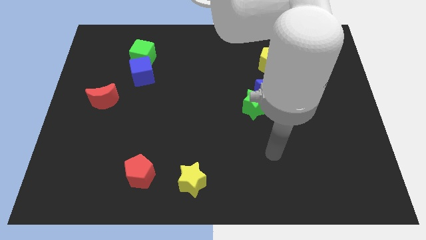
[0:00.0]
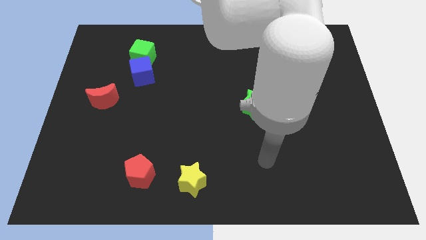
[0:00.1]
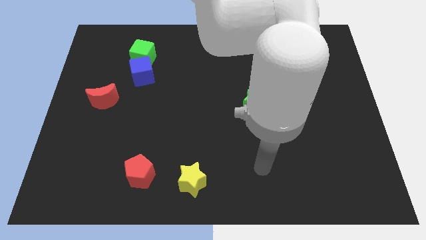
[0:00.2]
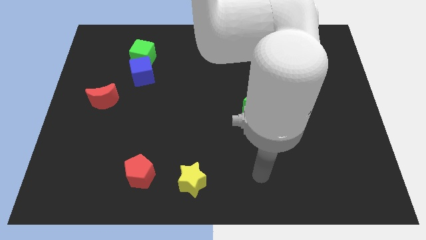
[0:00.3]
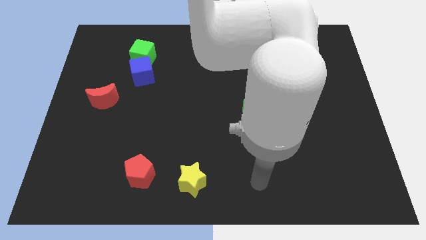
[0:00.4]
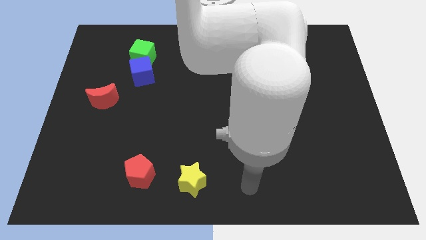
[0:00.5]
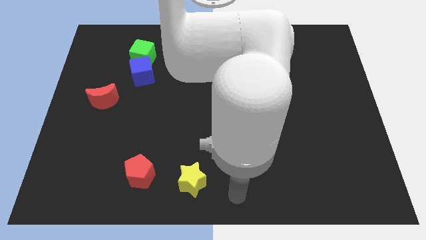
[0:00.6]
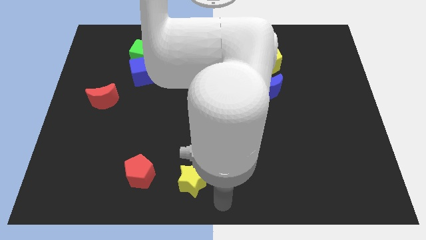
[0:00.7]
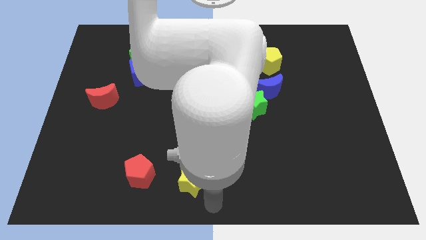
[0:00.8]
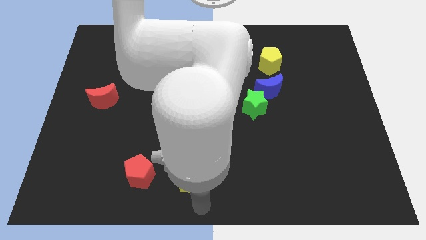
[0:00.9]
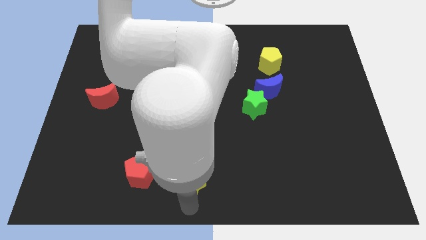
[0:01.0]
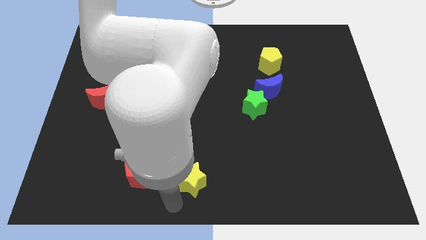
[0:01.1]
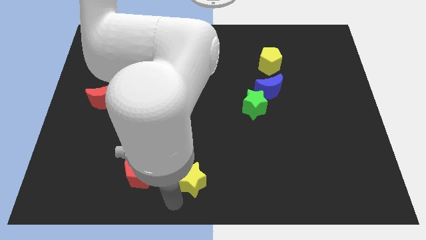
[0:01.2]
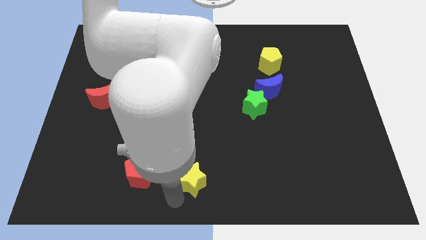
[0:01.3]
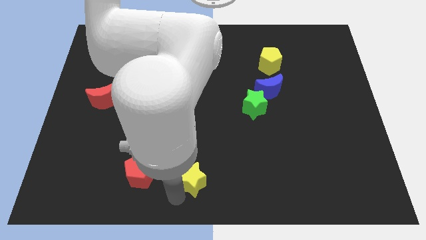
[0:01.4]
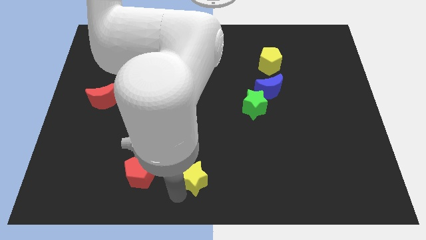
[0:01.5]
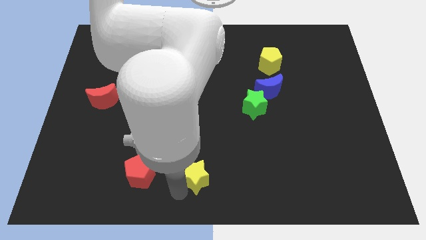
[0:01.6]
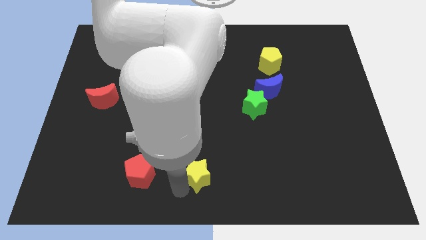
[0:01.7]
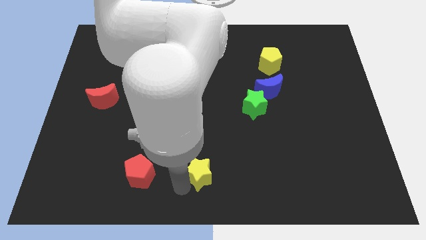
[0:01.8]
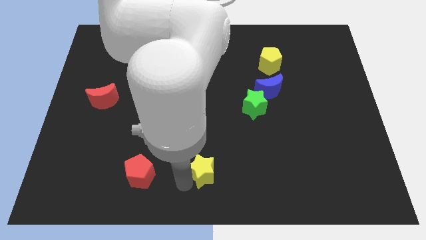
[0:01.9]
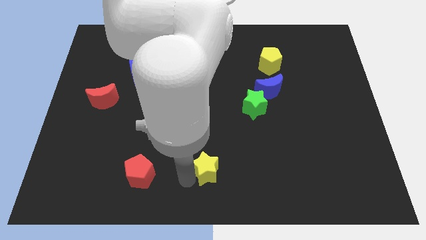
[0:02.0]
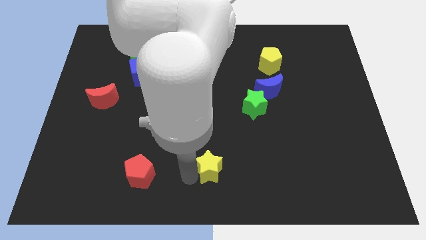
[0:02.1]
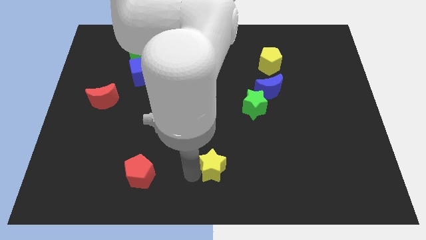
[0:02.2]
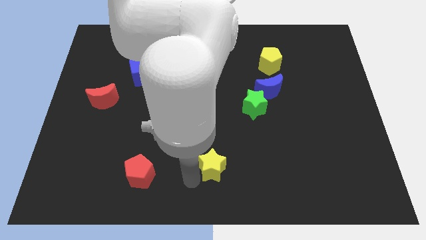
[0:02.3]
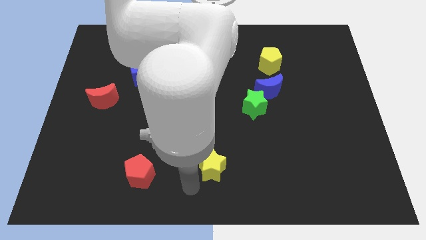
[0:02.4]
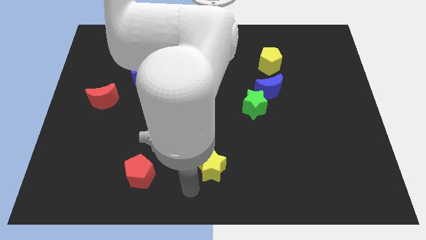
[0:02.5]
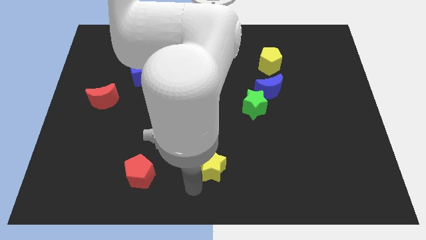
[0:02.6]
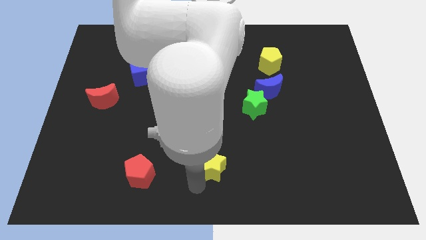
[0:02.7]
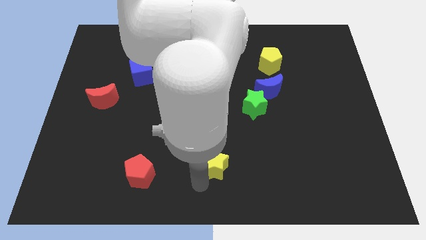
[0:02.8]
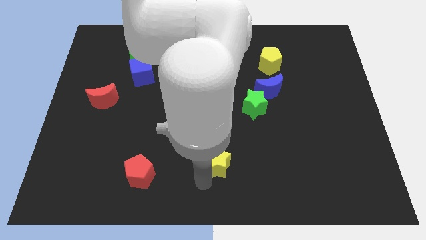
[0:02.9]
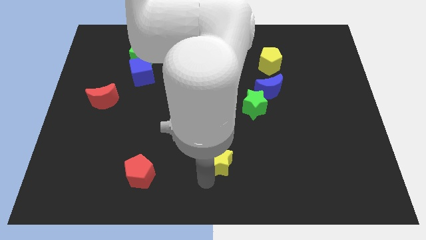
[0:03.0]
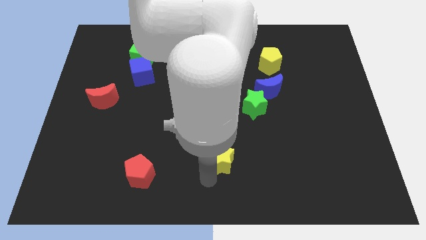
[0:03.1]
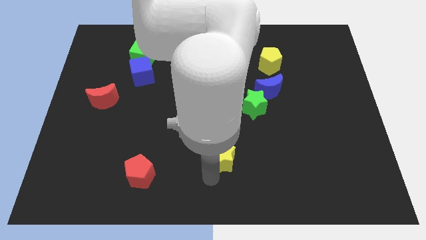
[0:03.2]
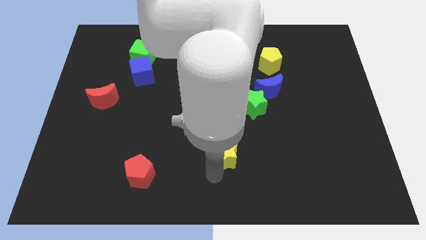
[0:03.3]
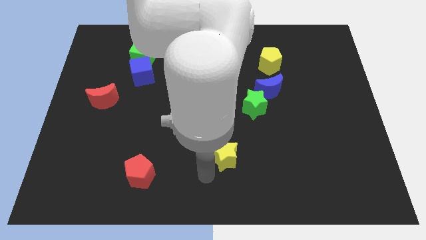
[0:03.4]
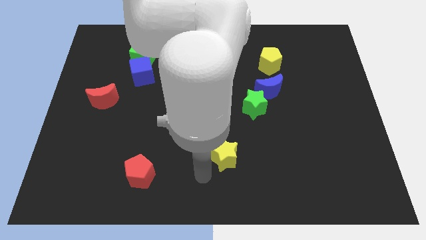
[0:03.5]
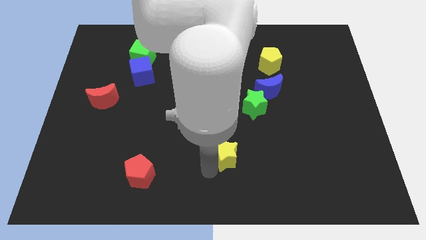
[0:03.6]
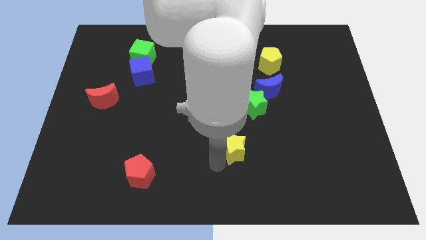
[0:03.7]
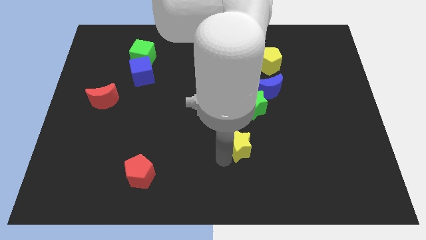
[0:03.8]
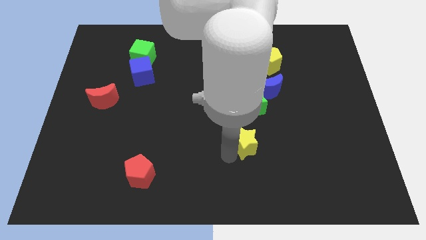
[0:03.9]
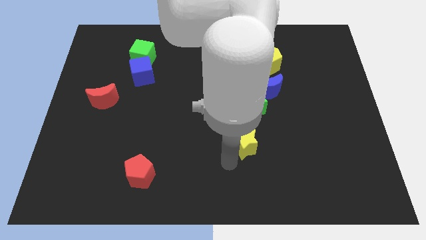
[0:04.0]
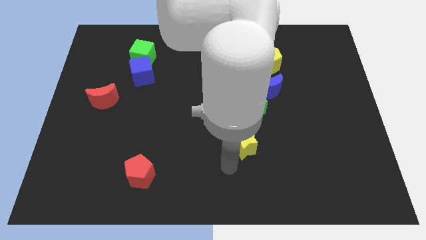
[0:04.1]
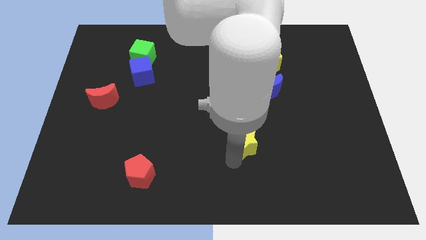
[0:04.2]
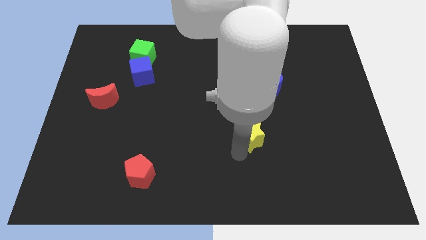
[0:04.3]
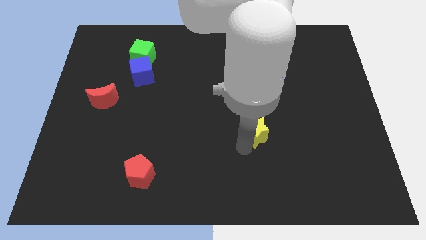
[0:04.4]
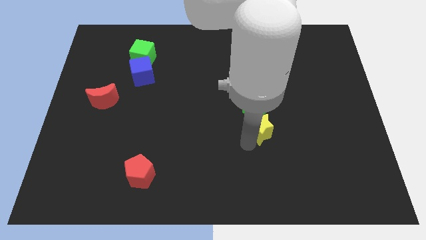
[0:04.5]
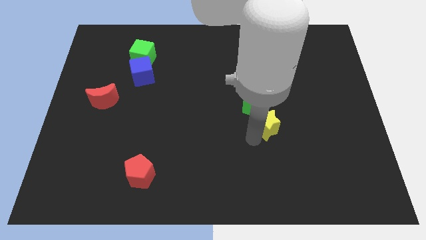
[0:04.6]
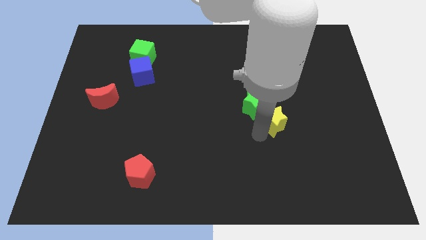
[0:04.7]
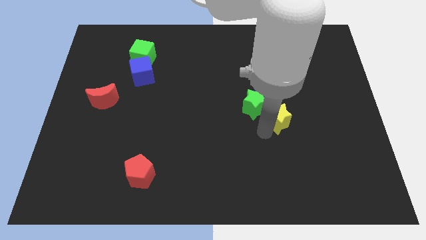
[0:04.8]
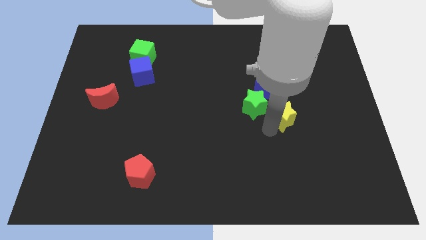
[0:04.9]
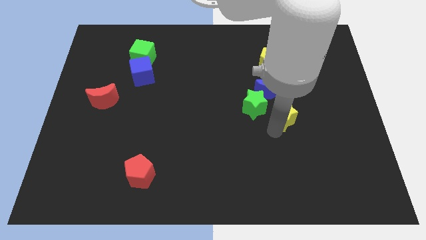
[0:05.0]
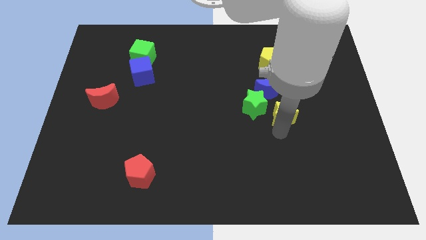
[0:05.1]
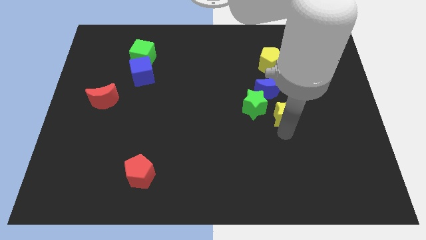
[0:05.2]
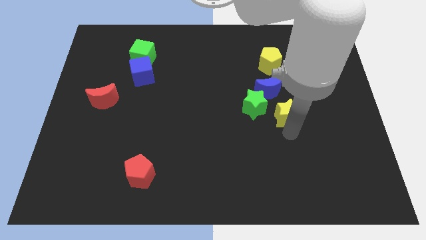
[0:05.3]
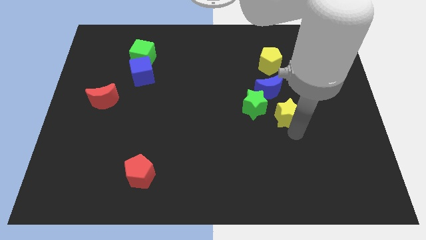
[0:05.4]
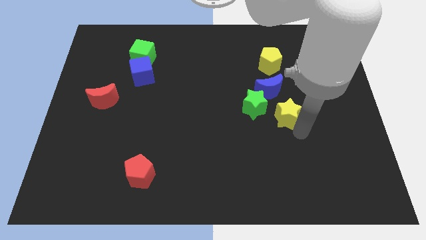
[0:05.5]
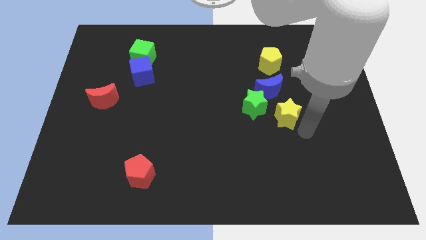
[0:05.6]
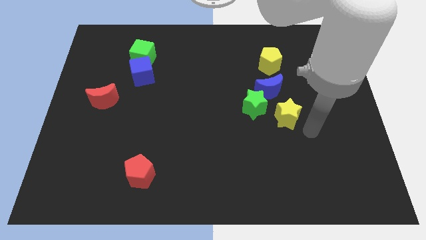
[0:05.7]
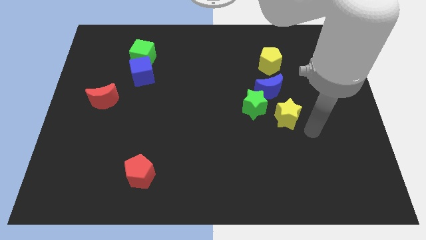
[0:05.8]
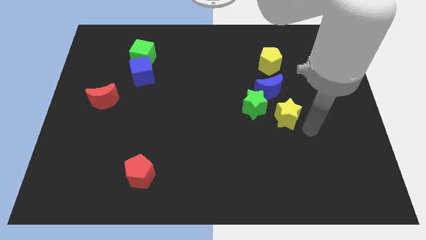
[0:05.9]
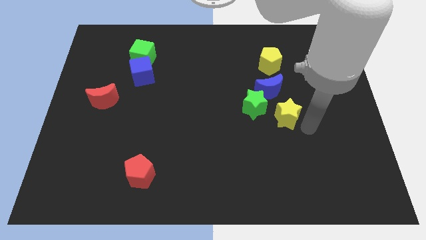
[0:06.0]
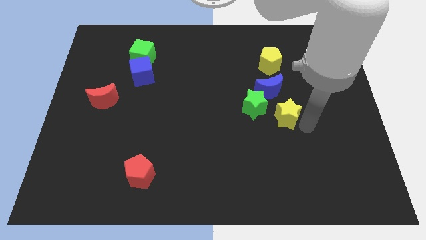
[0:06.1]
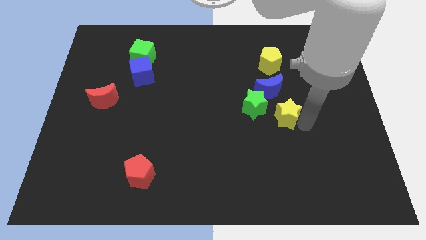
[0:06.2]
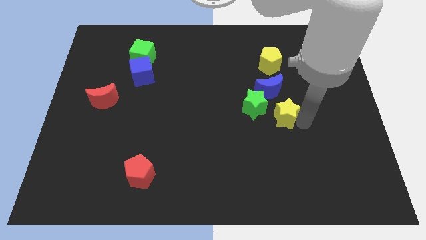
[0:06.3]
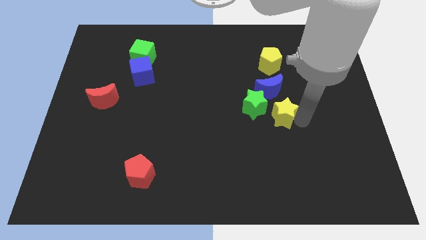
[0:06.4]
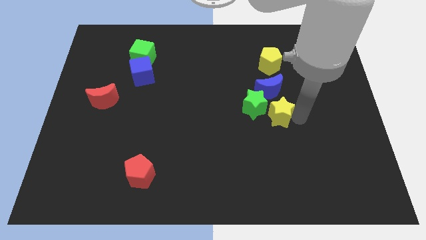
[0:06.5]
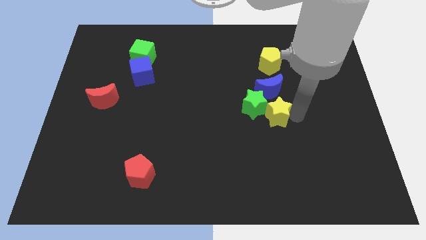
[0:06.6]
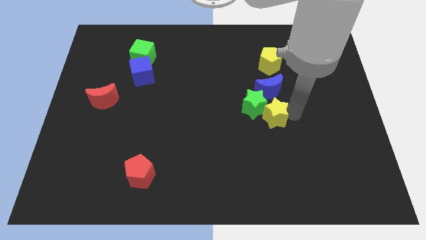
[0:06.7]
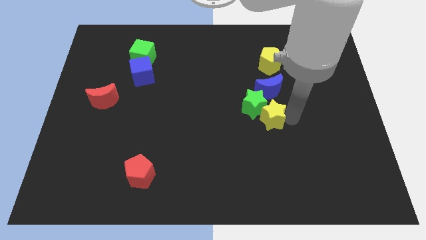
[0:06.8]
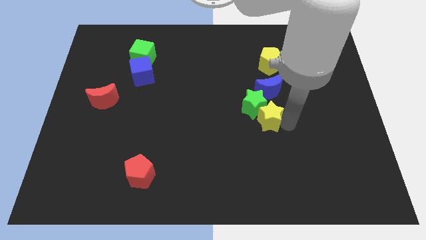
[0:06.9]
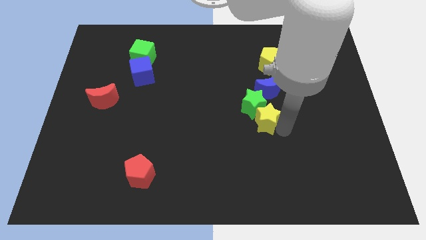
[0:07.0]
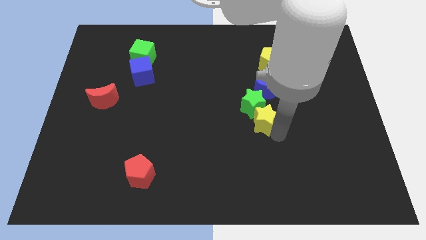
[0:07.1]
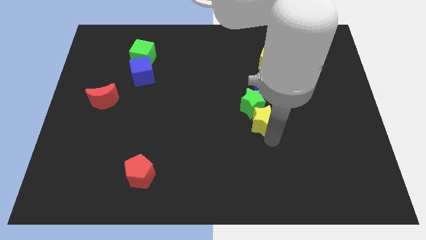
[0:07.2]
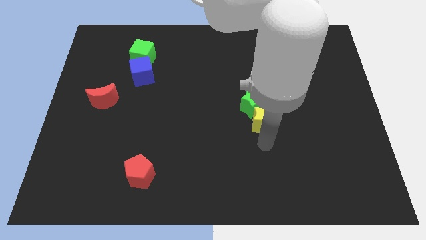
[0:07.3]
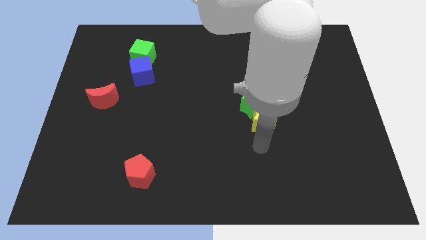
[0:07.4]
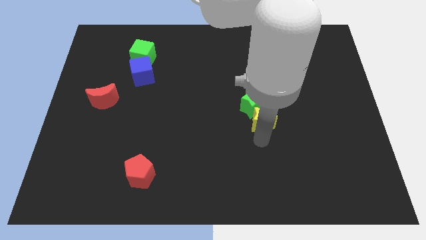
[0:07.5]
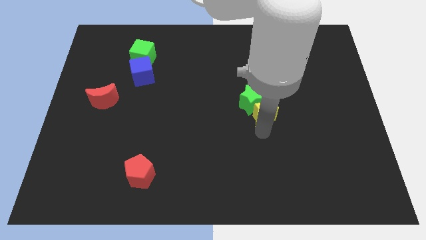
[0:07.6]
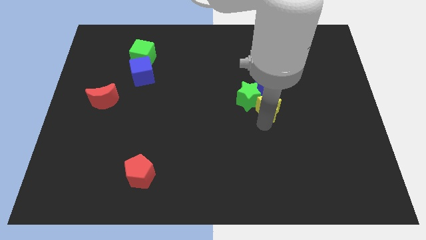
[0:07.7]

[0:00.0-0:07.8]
slide the yellow star to the blue moon

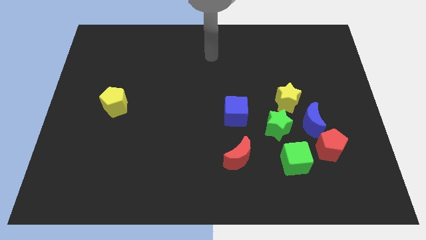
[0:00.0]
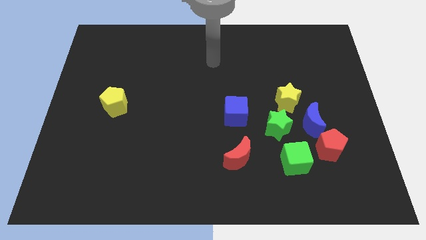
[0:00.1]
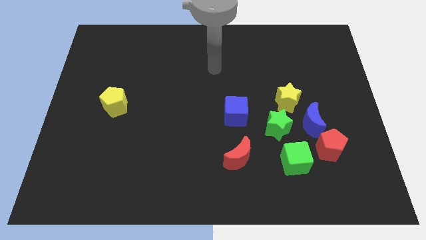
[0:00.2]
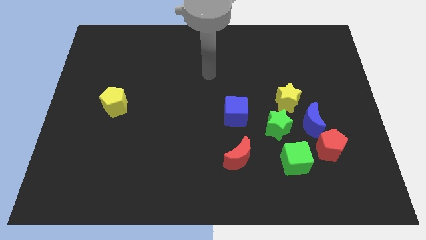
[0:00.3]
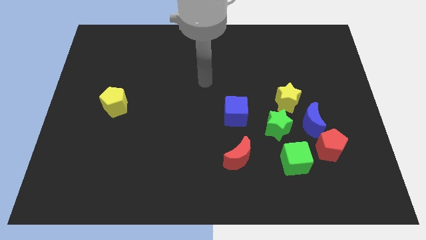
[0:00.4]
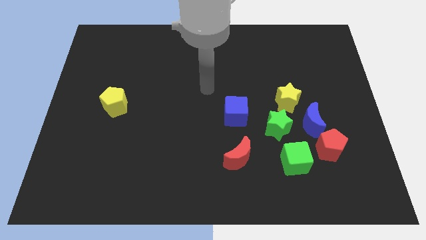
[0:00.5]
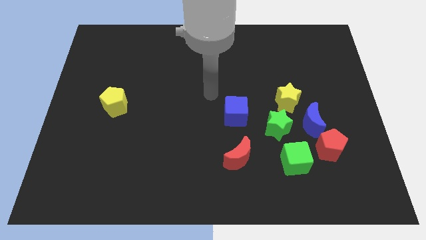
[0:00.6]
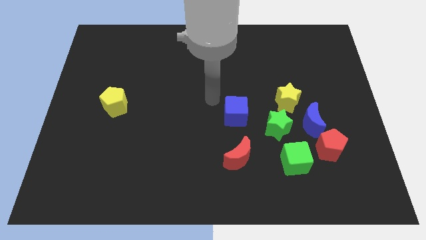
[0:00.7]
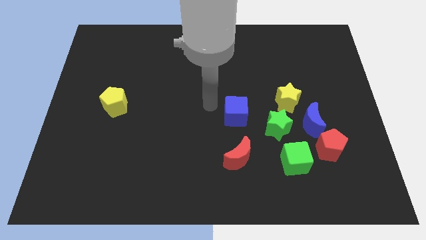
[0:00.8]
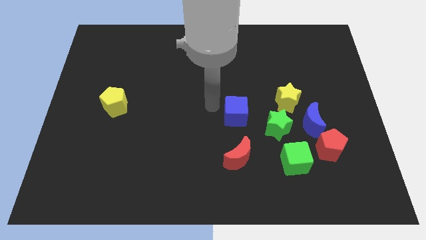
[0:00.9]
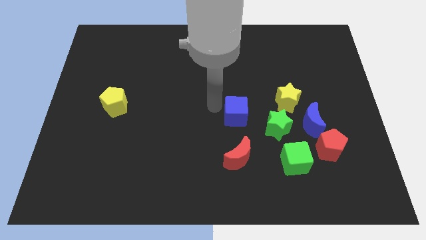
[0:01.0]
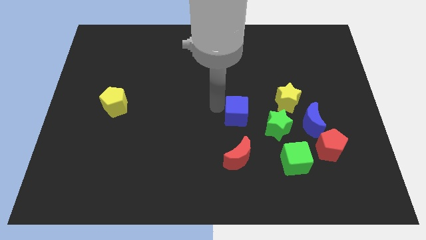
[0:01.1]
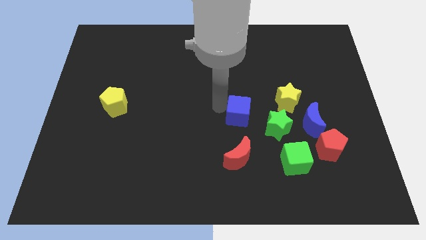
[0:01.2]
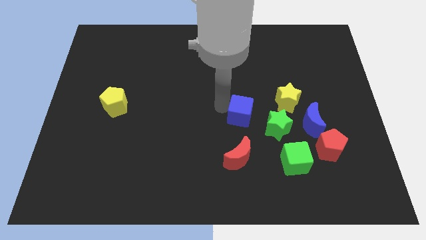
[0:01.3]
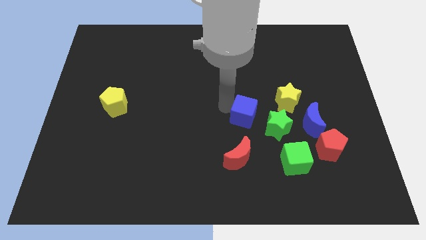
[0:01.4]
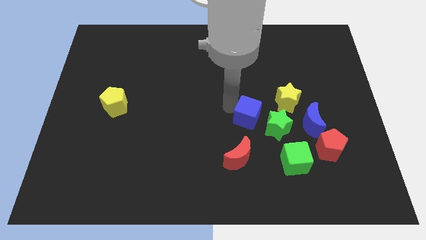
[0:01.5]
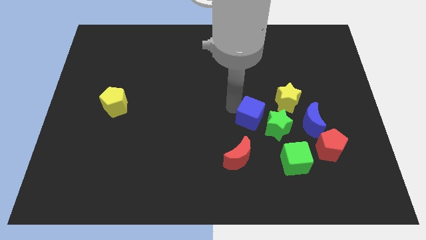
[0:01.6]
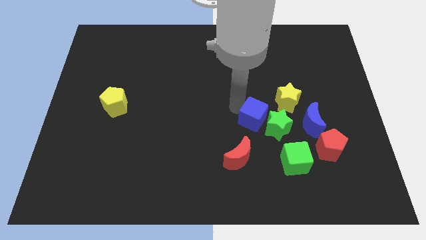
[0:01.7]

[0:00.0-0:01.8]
move the blue cube next to the green star
